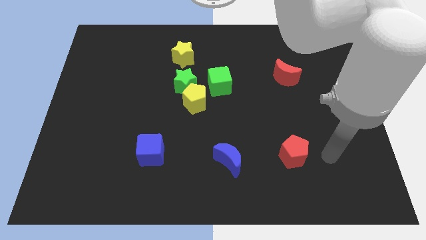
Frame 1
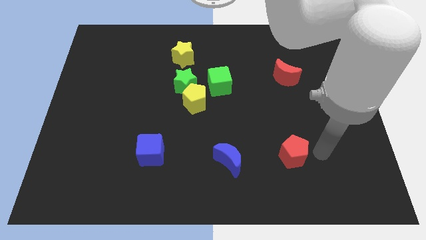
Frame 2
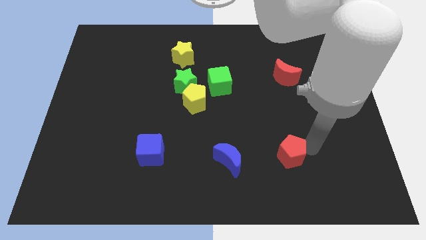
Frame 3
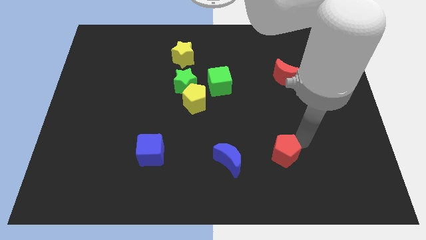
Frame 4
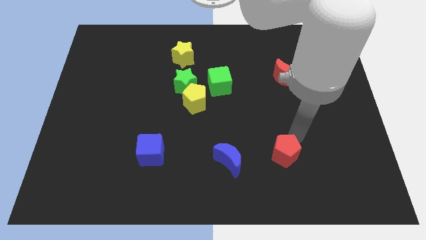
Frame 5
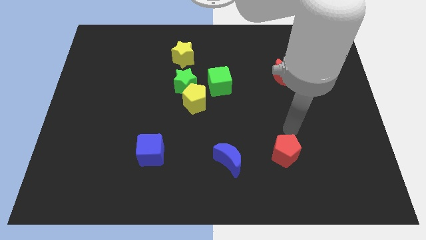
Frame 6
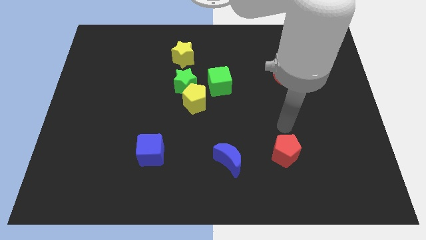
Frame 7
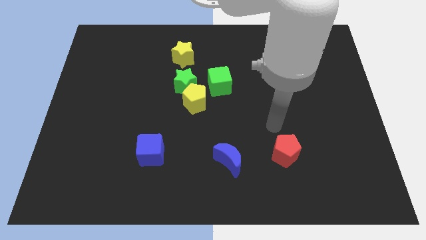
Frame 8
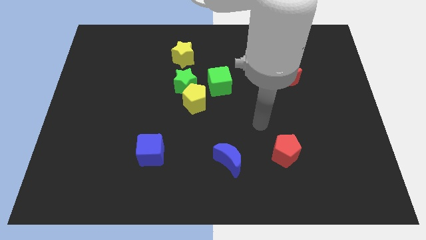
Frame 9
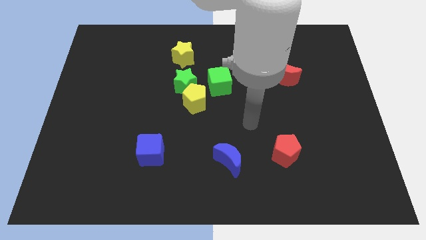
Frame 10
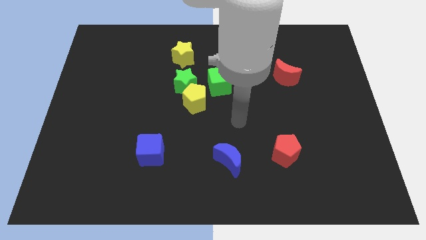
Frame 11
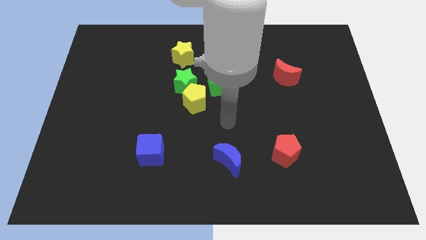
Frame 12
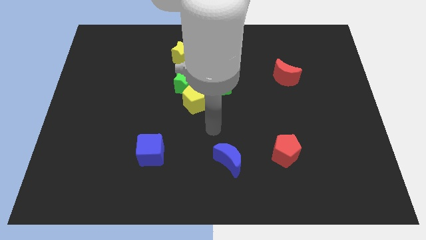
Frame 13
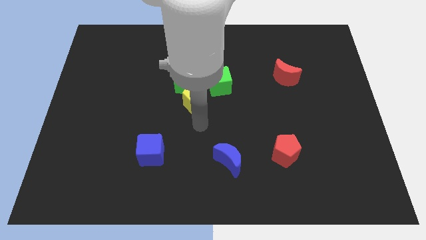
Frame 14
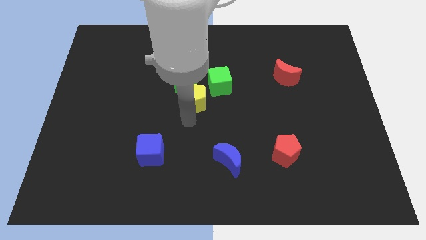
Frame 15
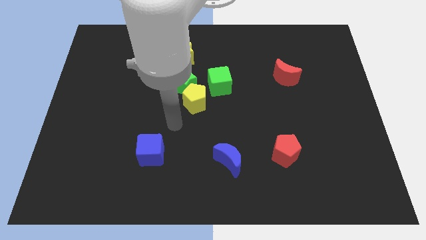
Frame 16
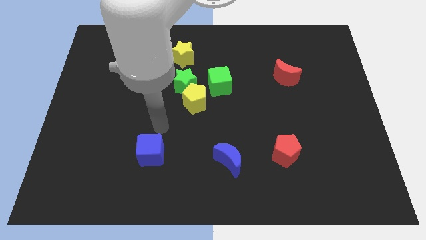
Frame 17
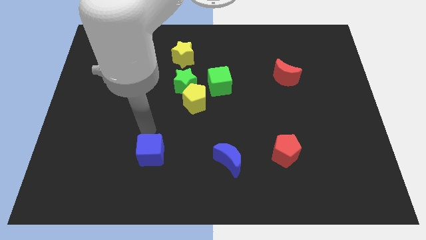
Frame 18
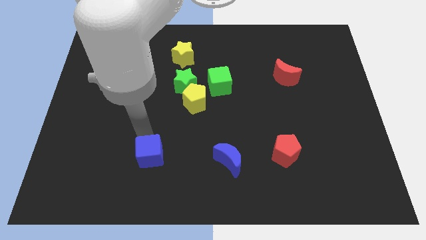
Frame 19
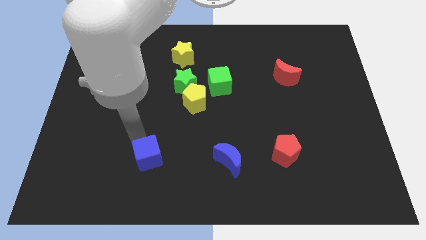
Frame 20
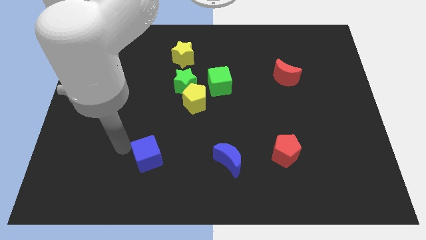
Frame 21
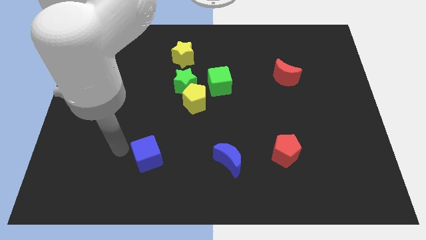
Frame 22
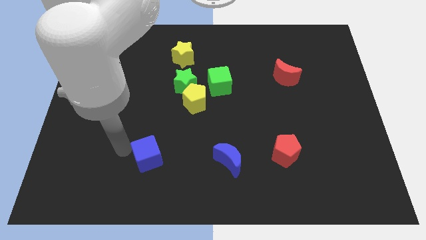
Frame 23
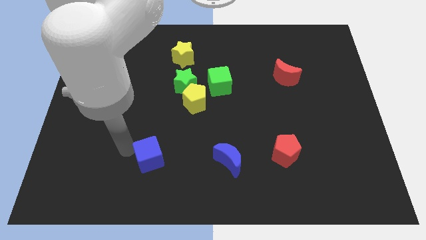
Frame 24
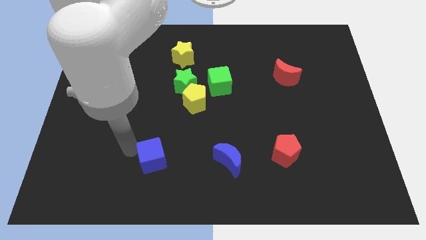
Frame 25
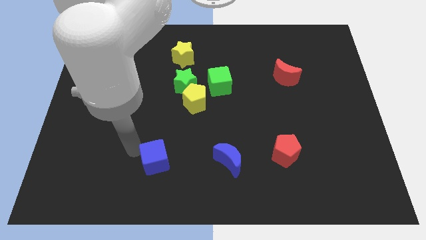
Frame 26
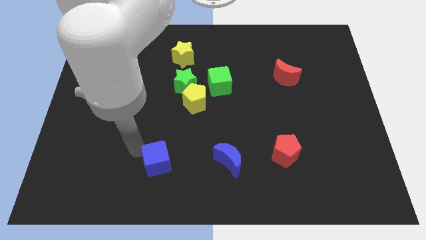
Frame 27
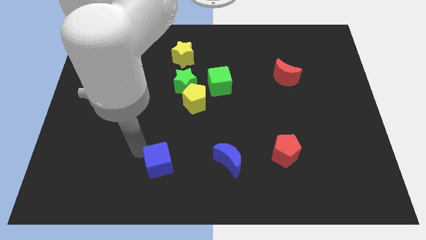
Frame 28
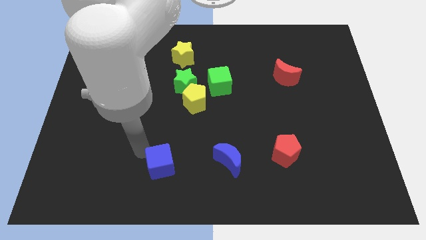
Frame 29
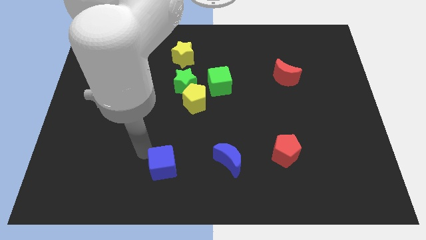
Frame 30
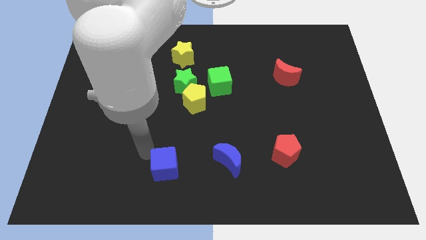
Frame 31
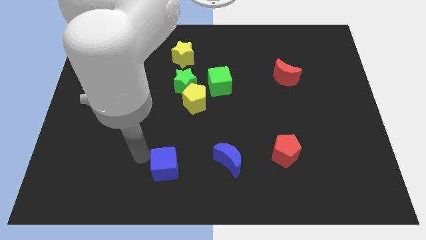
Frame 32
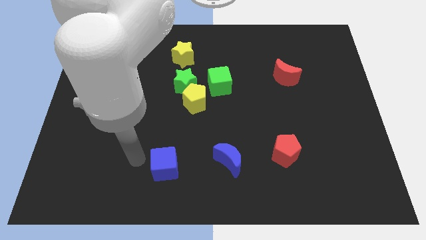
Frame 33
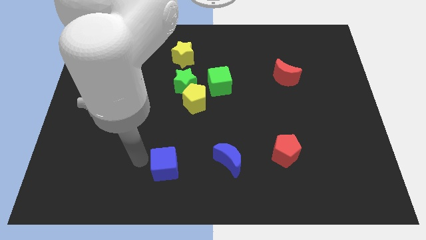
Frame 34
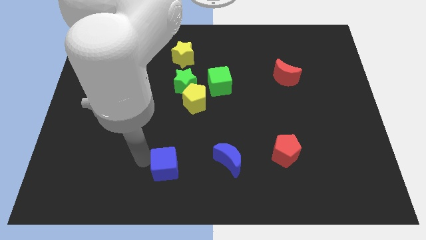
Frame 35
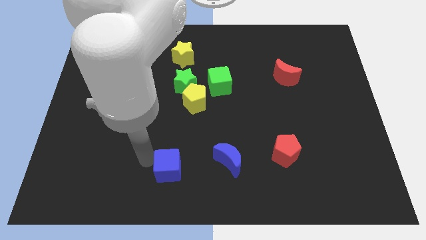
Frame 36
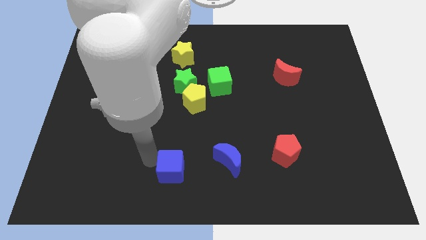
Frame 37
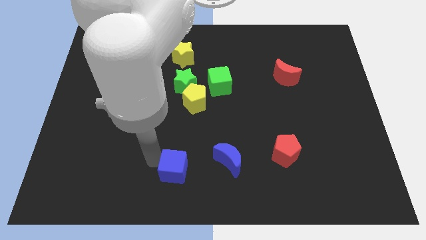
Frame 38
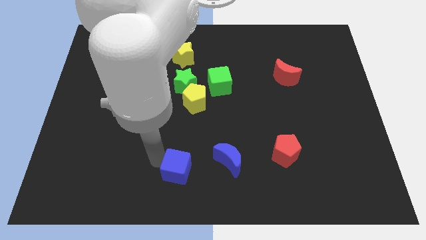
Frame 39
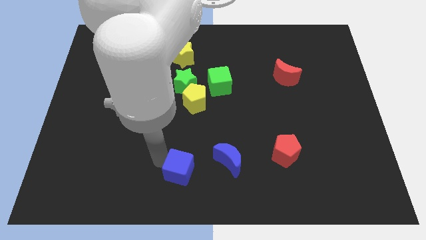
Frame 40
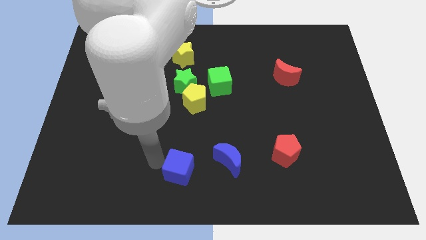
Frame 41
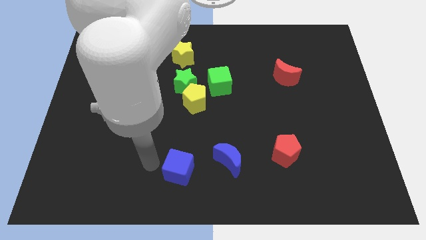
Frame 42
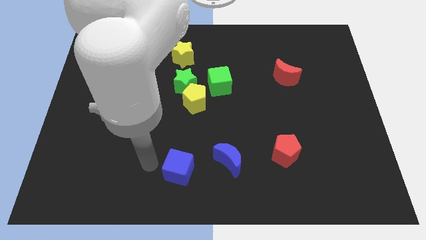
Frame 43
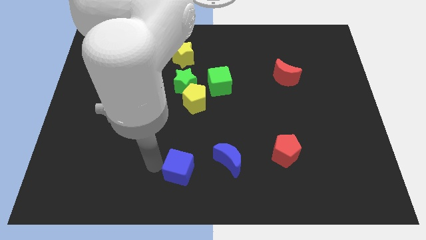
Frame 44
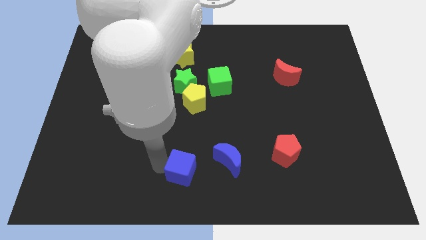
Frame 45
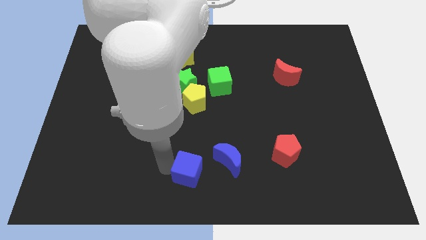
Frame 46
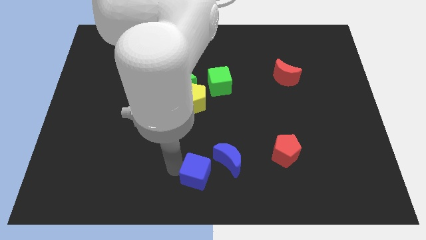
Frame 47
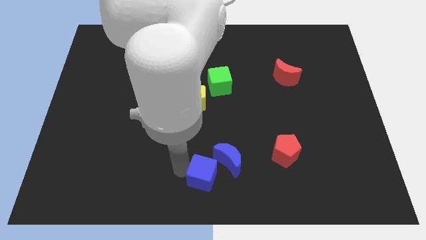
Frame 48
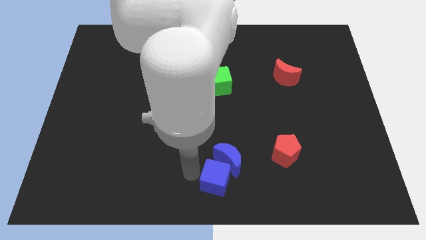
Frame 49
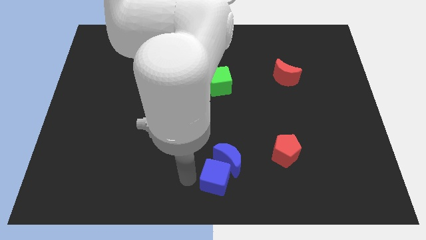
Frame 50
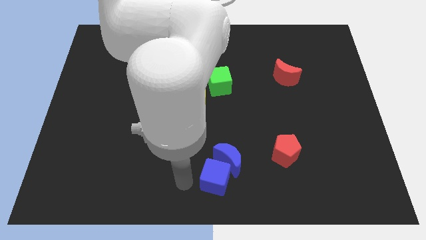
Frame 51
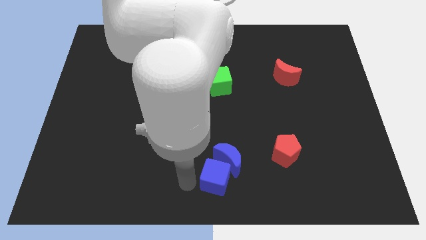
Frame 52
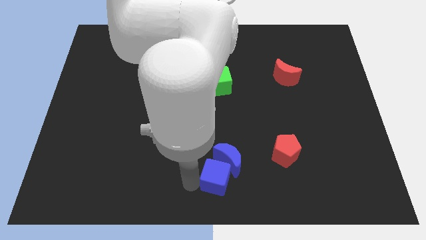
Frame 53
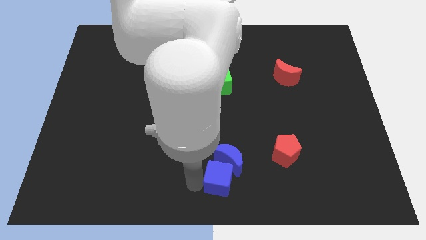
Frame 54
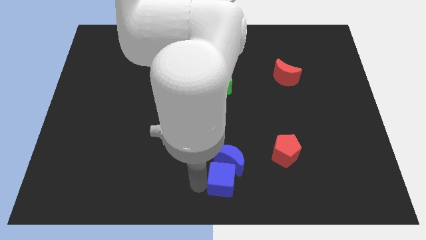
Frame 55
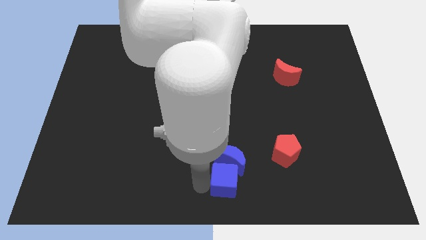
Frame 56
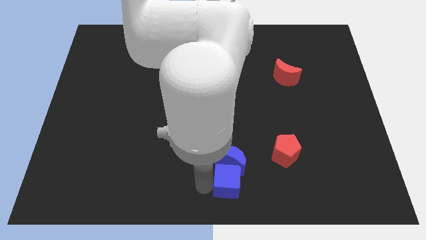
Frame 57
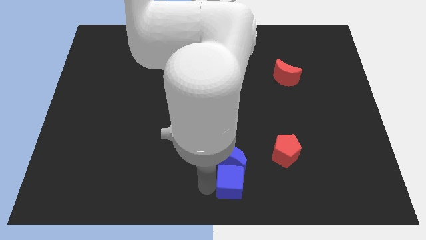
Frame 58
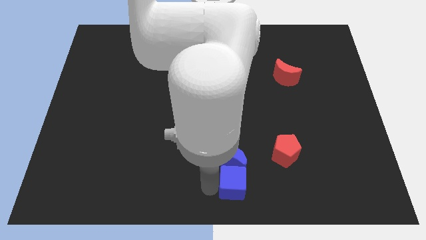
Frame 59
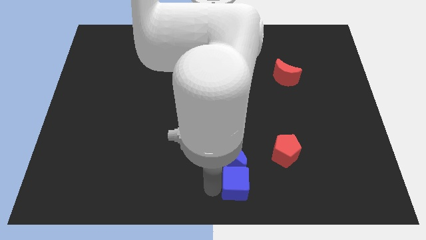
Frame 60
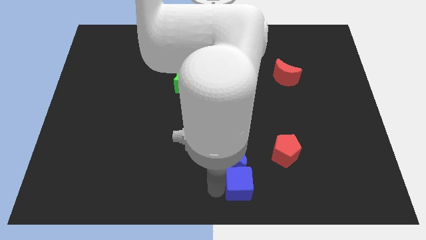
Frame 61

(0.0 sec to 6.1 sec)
put the blue cube to the bottom left side of the red pentagon

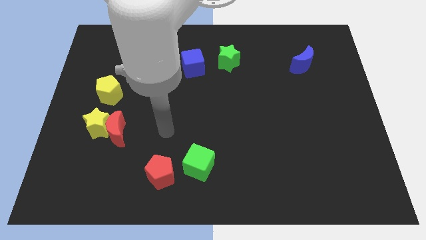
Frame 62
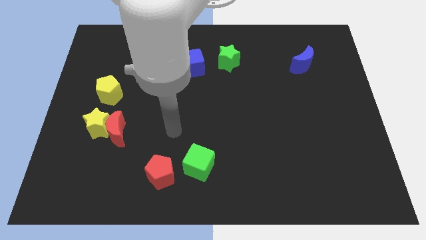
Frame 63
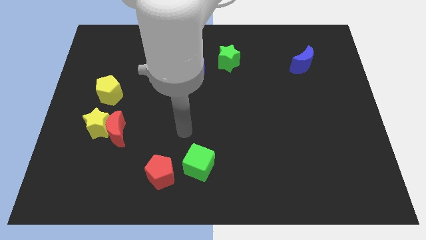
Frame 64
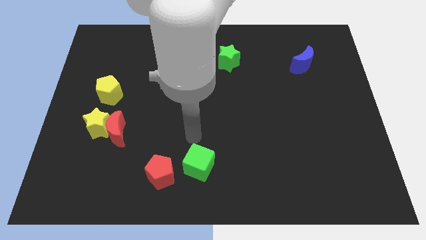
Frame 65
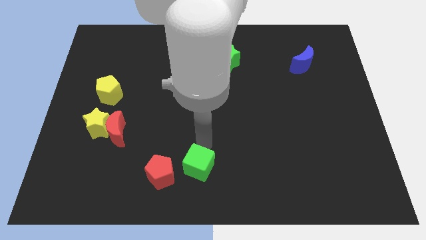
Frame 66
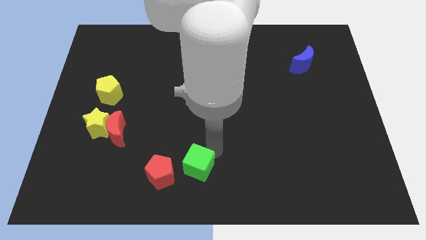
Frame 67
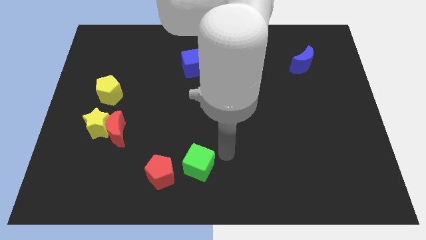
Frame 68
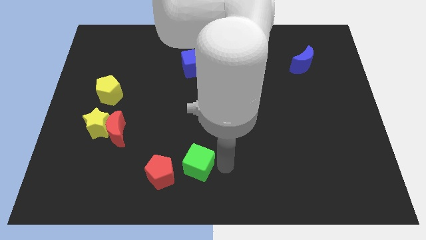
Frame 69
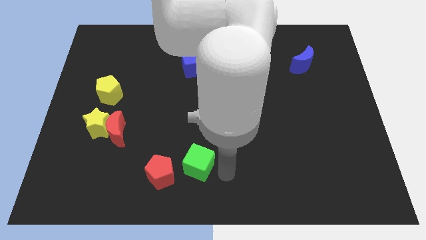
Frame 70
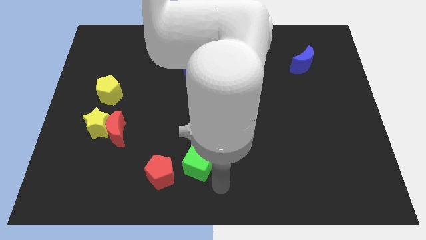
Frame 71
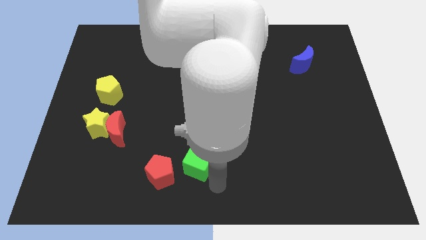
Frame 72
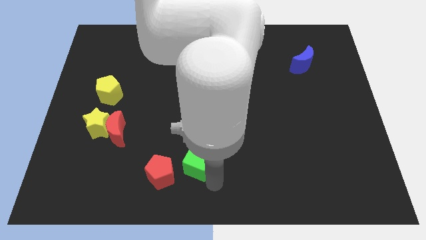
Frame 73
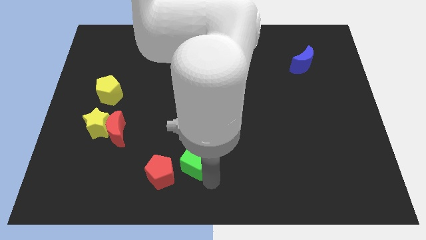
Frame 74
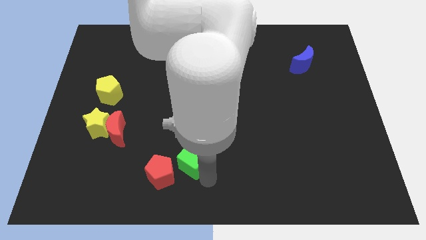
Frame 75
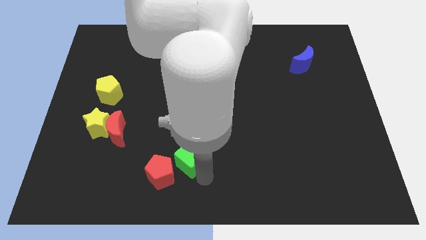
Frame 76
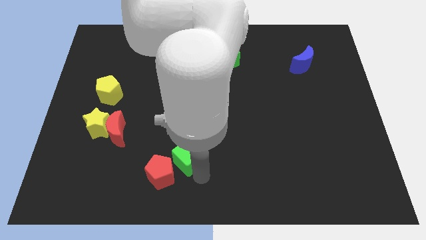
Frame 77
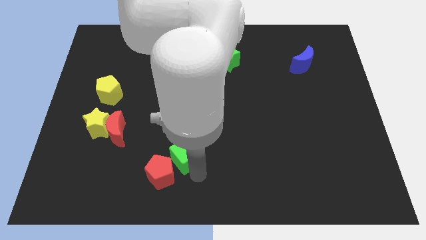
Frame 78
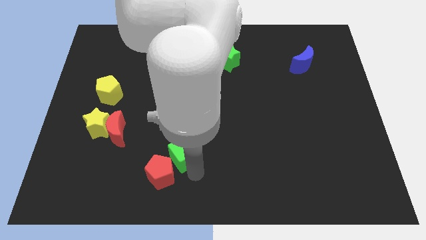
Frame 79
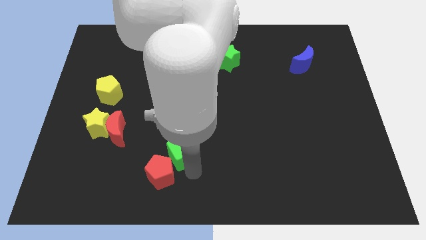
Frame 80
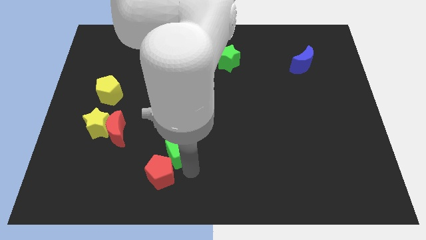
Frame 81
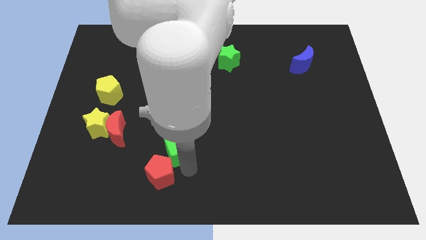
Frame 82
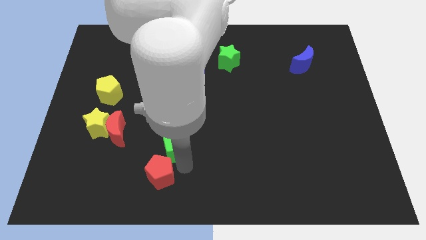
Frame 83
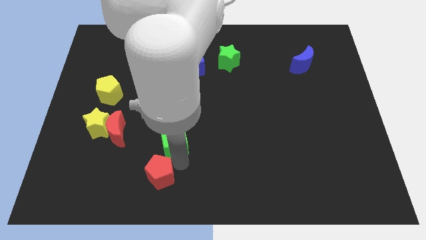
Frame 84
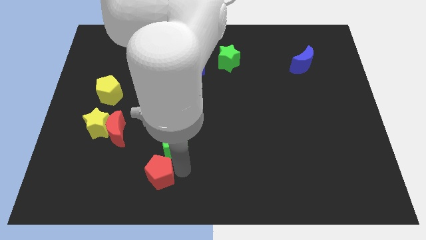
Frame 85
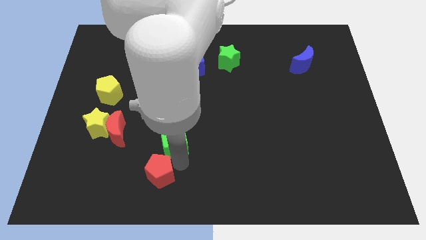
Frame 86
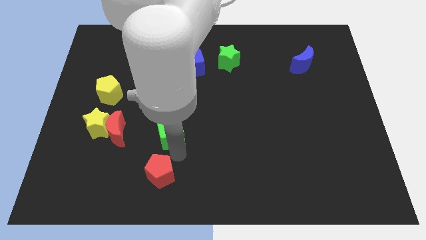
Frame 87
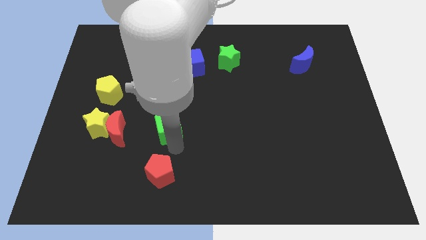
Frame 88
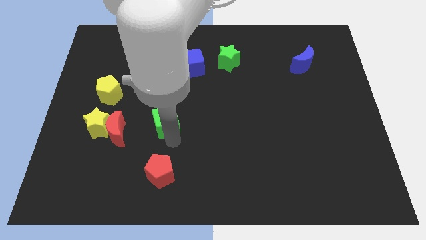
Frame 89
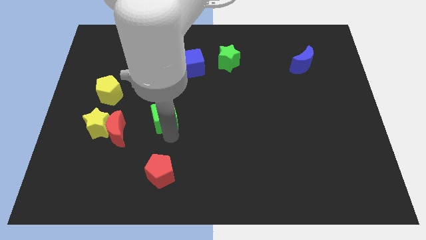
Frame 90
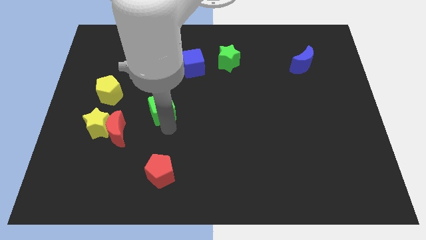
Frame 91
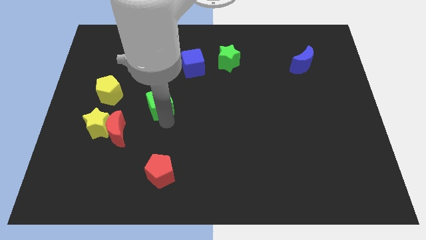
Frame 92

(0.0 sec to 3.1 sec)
move the green cube right of the yellow pentagon
